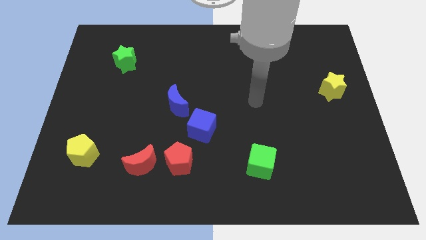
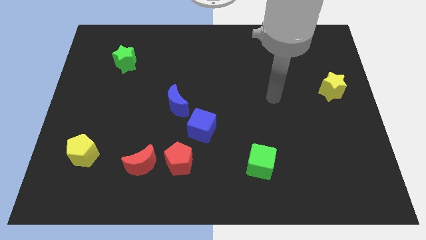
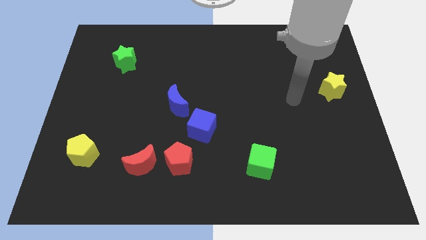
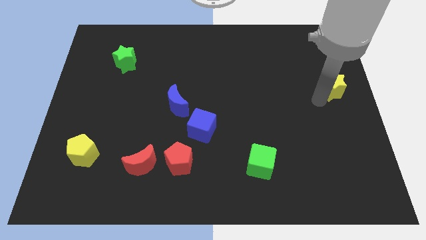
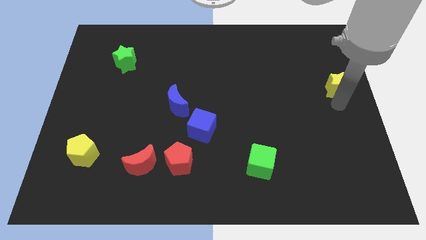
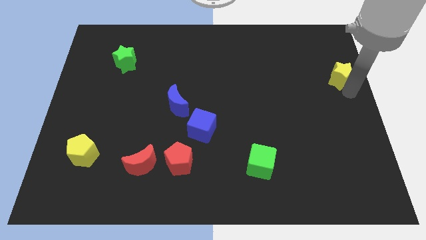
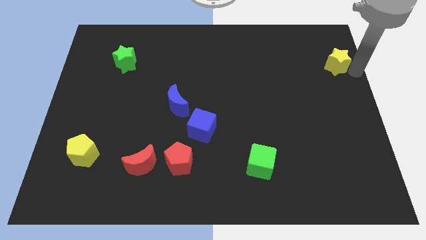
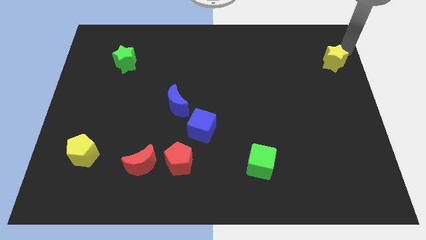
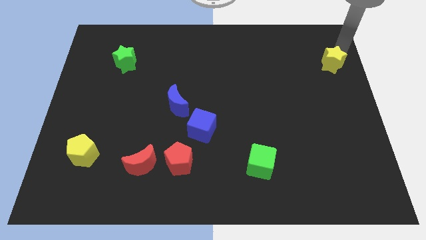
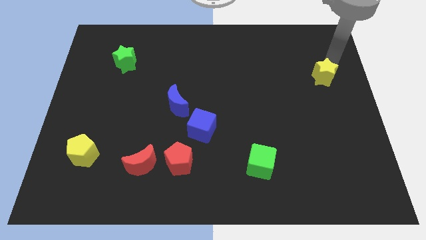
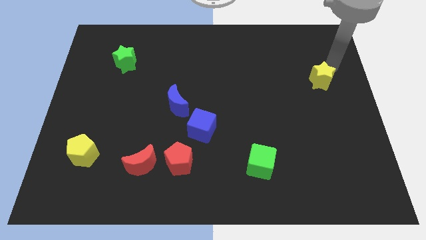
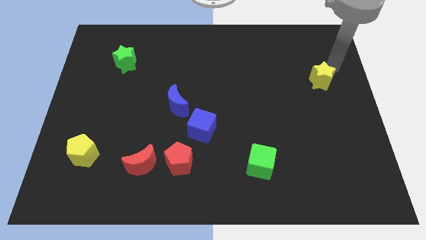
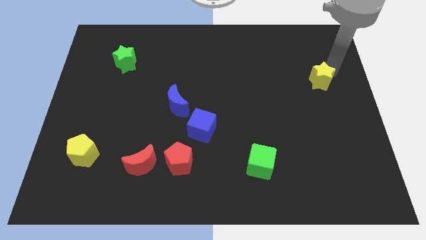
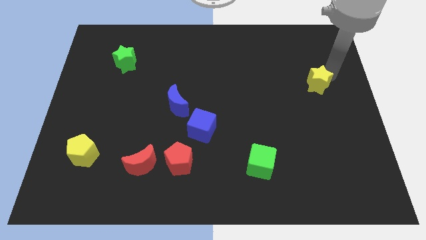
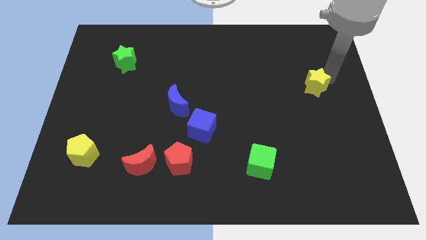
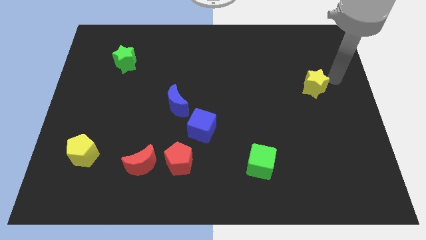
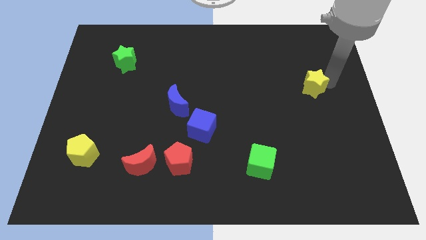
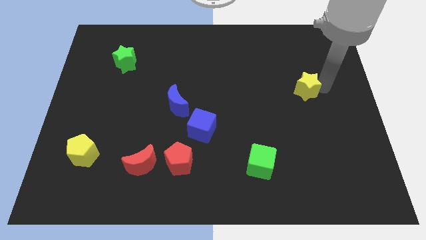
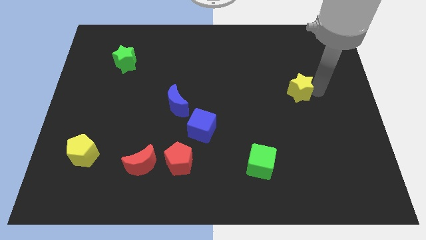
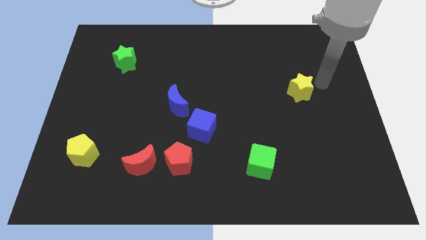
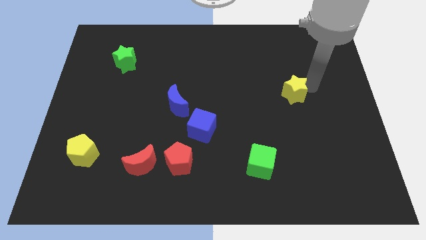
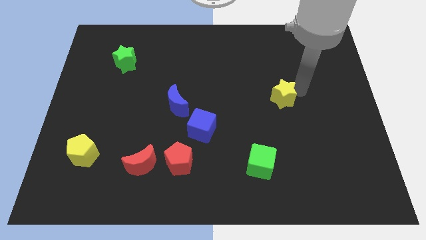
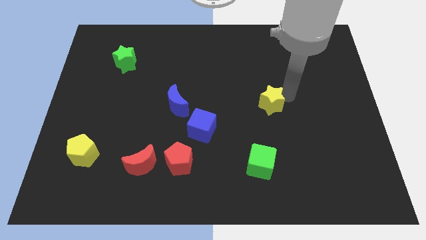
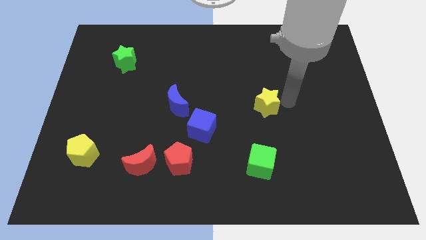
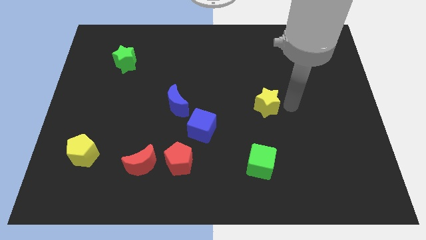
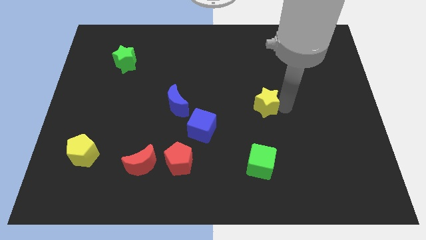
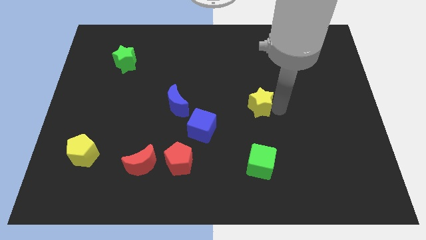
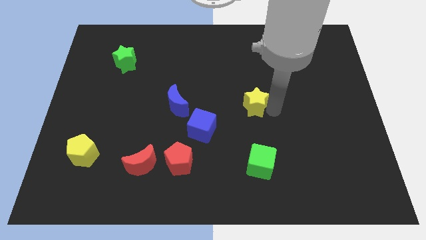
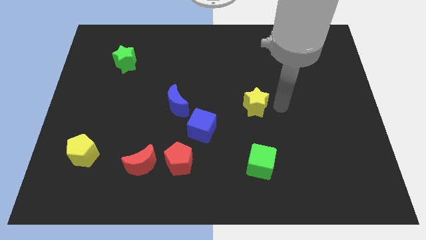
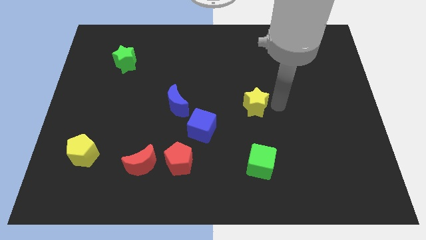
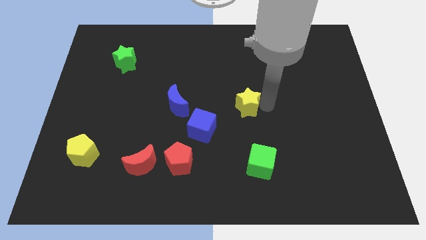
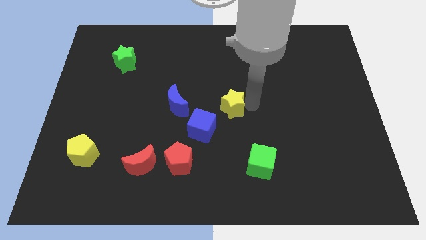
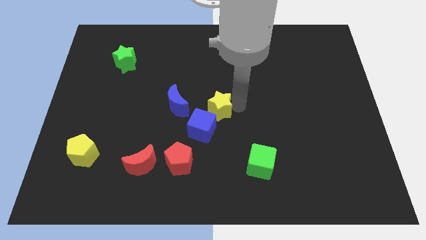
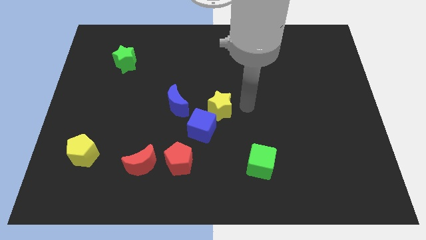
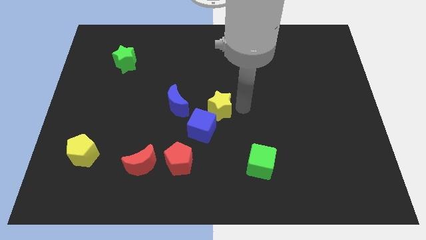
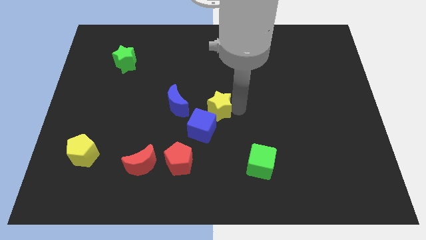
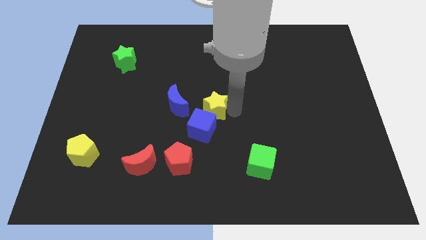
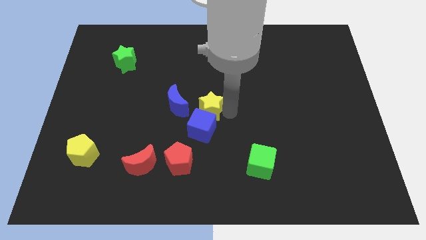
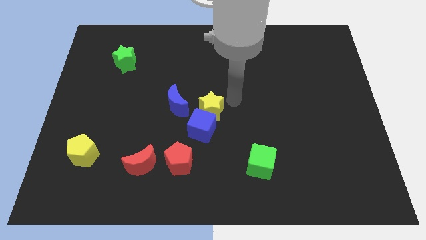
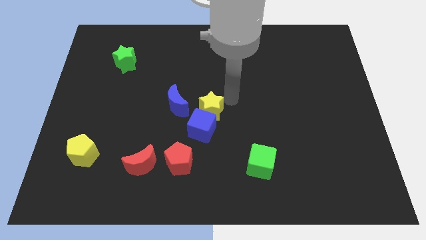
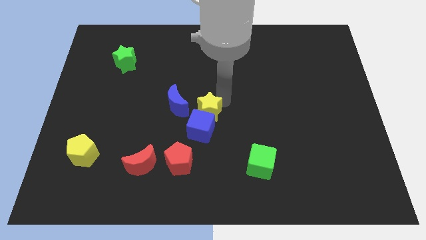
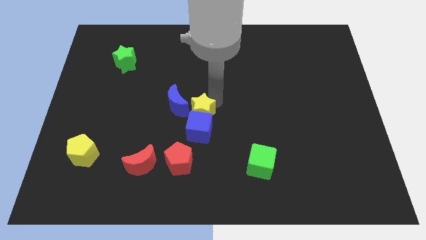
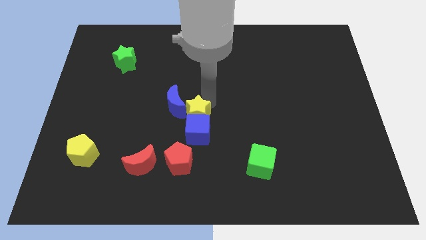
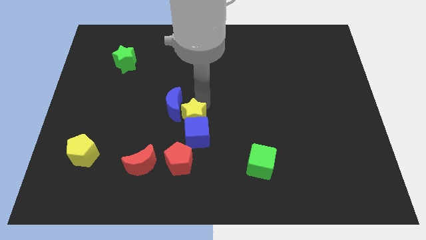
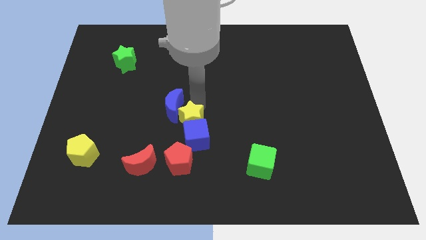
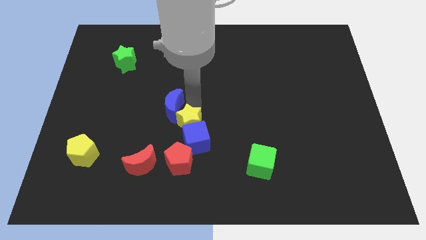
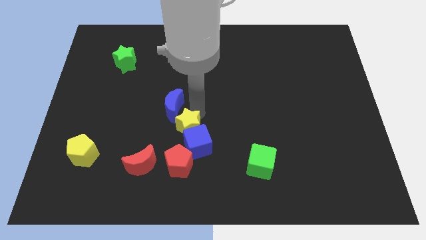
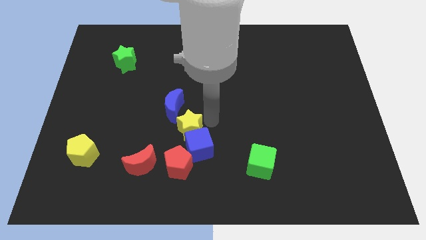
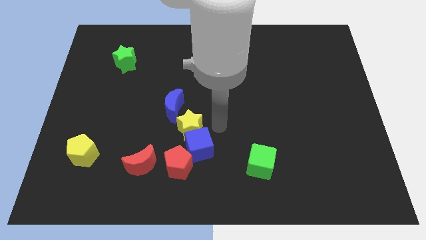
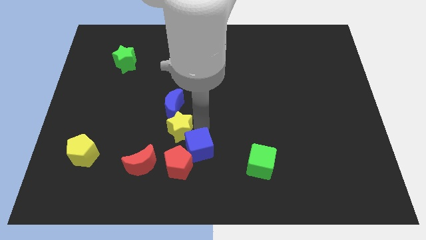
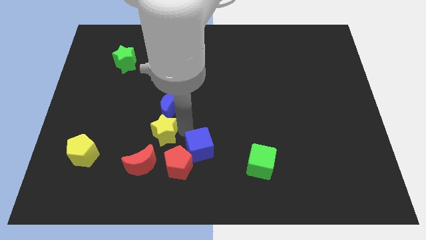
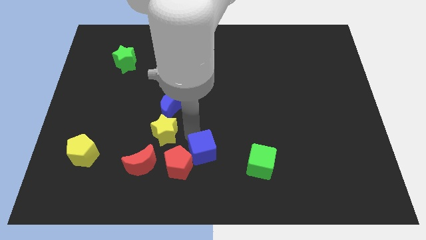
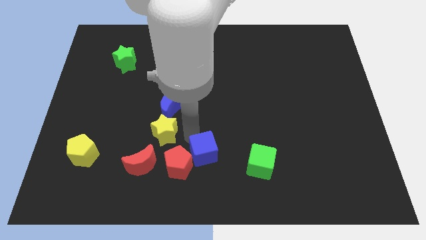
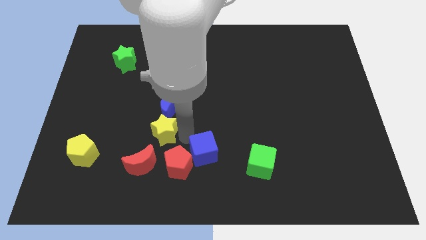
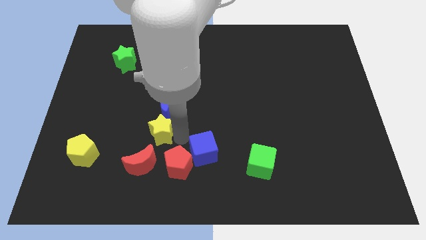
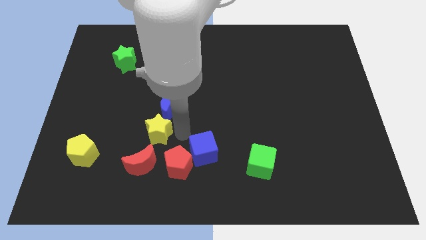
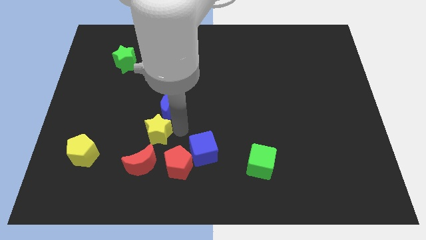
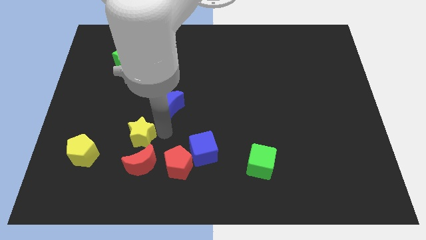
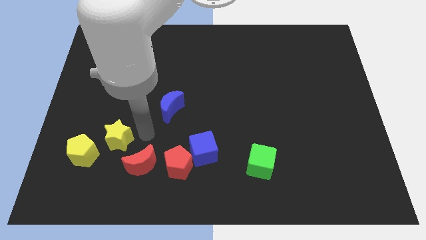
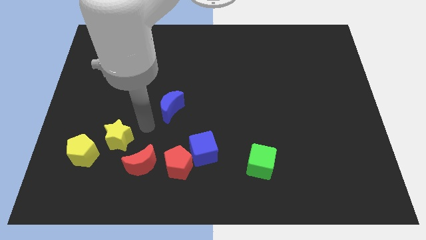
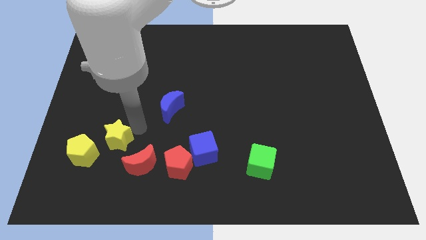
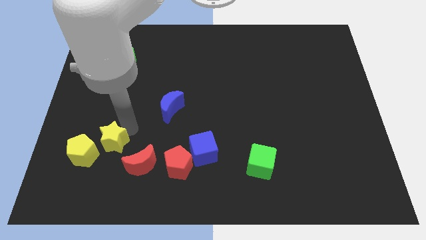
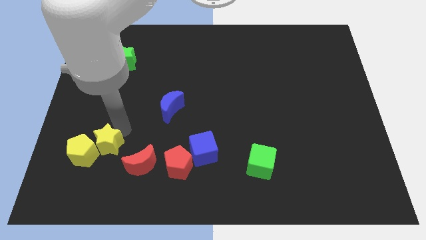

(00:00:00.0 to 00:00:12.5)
put the yellow star towards the yellow pentagon

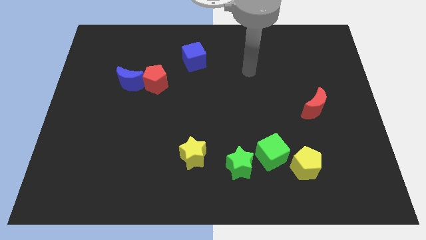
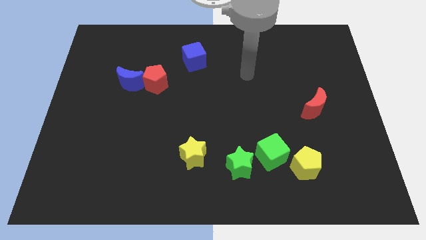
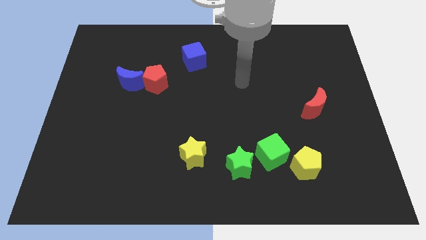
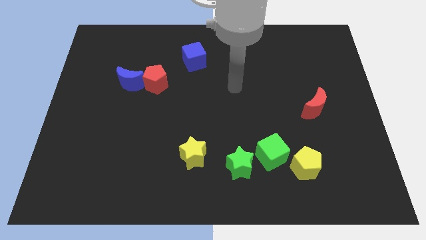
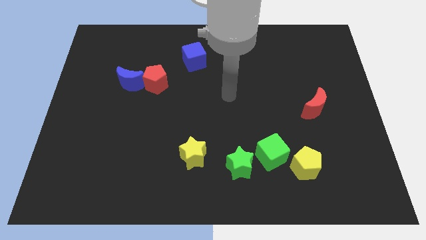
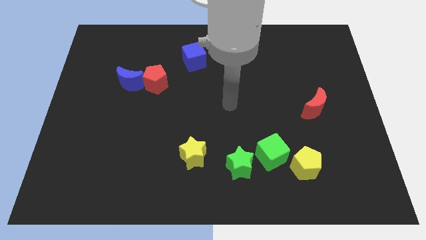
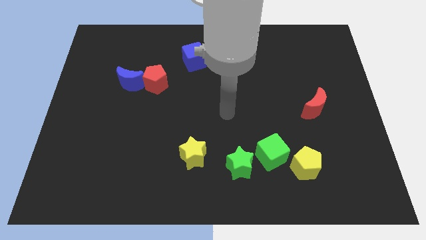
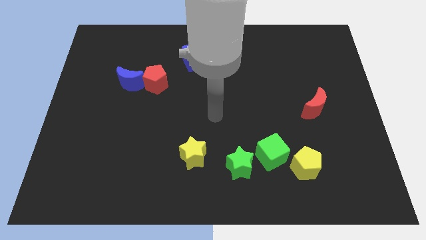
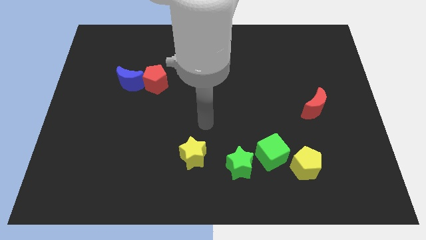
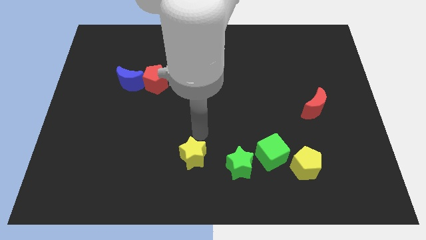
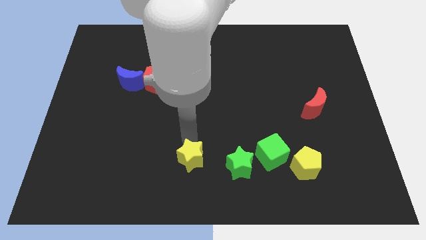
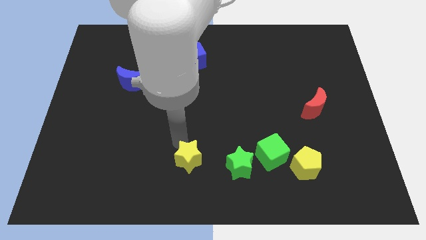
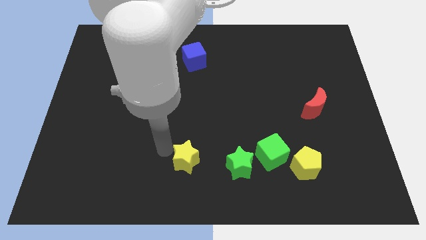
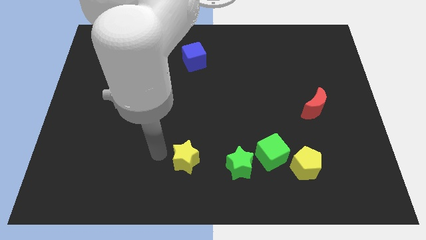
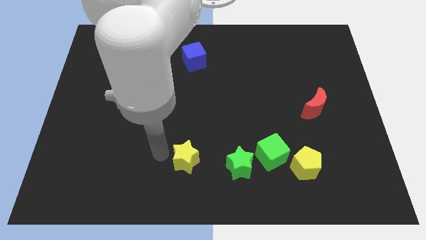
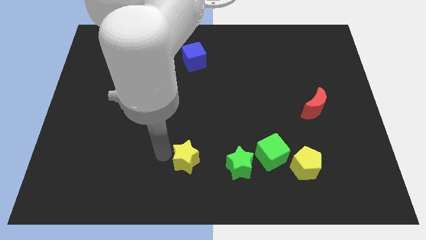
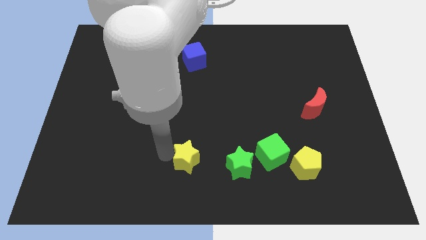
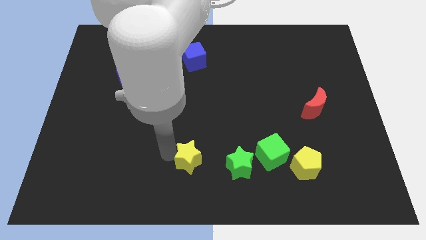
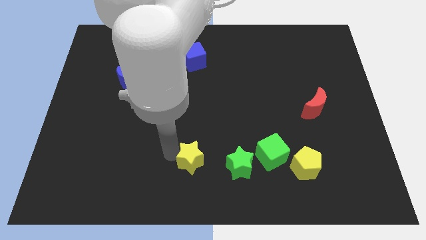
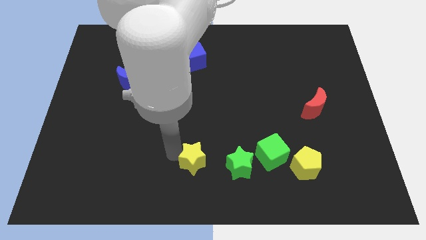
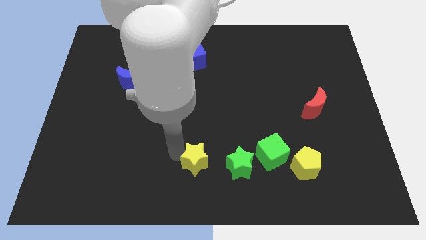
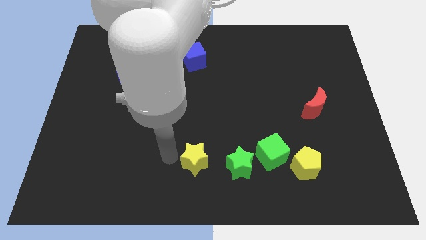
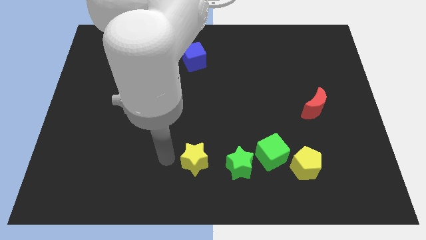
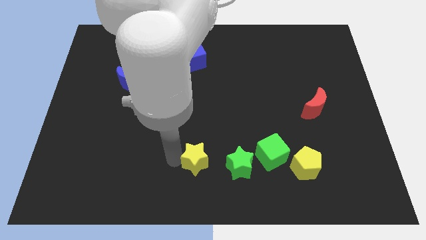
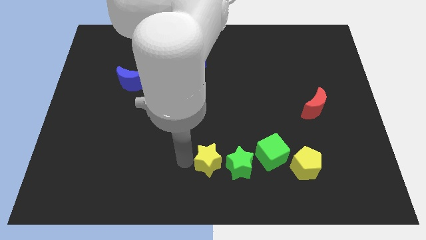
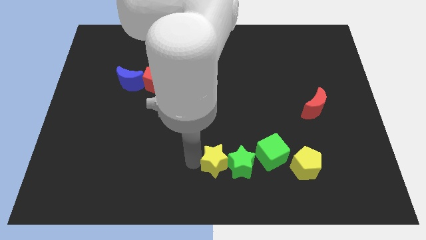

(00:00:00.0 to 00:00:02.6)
slide the yellow star to the green star
